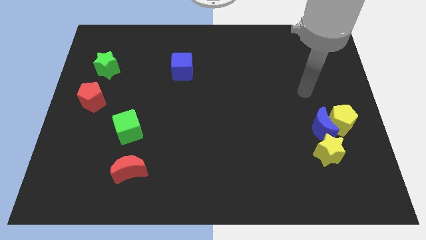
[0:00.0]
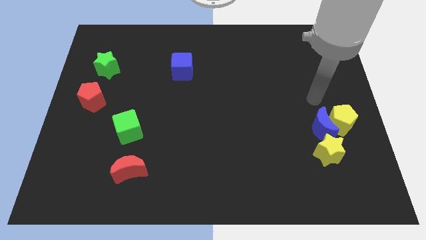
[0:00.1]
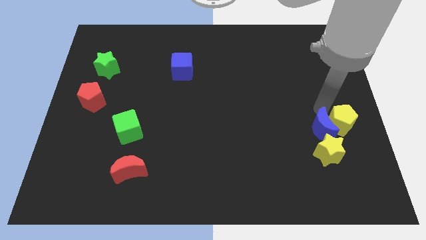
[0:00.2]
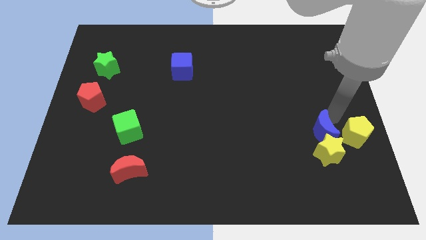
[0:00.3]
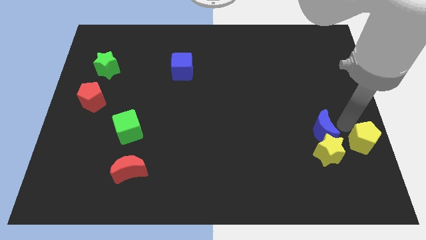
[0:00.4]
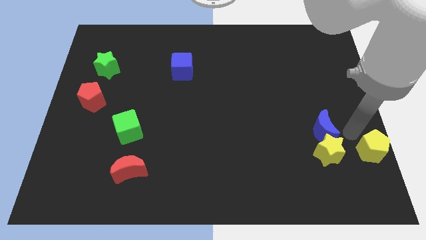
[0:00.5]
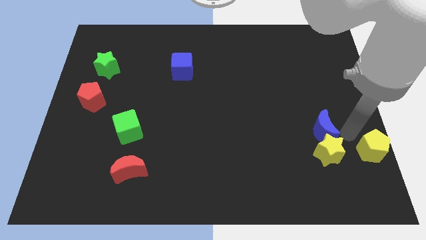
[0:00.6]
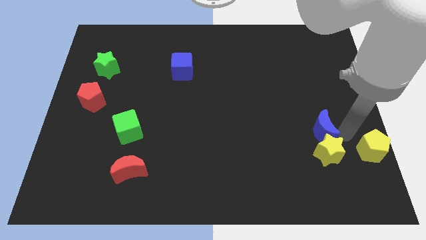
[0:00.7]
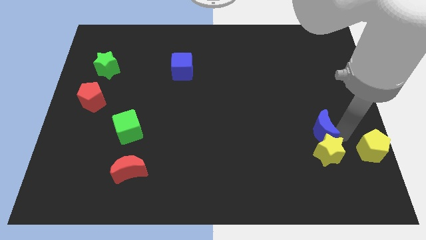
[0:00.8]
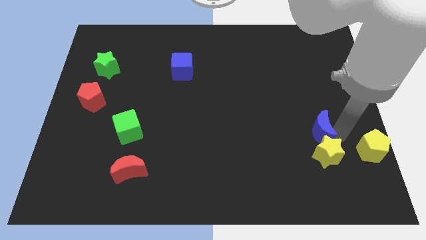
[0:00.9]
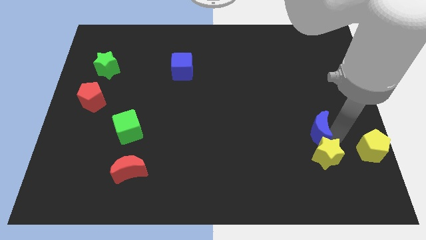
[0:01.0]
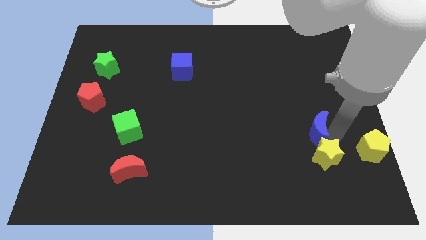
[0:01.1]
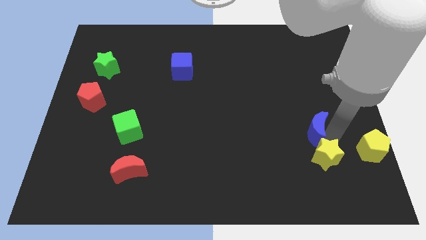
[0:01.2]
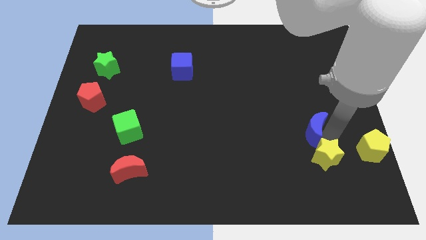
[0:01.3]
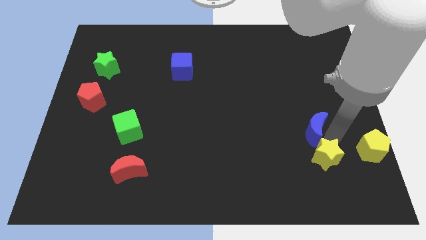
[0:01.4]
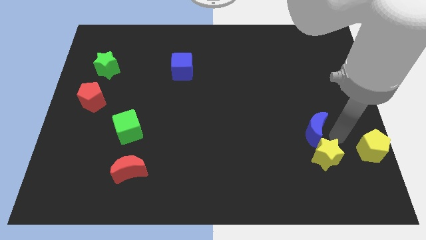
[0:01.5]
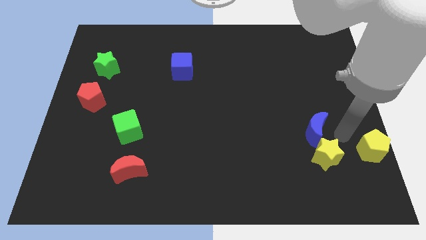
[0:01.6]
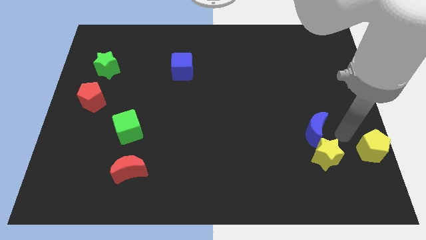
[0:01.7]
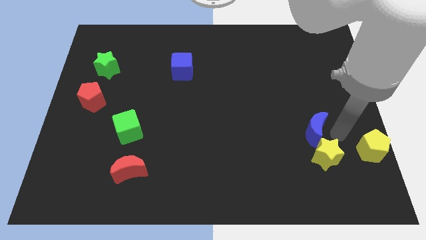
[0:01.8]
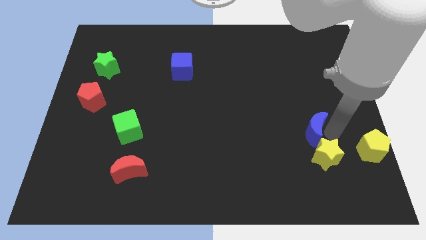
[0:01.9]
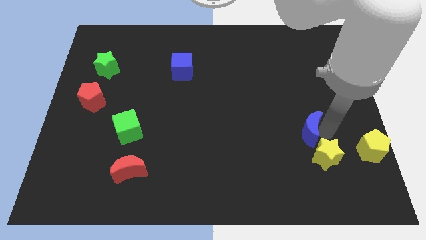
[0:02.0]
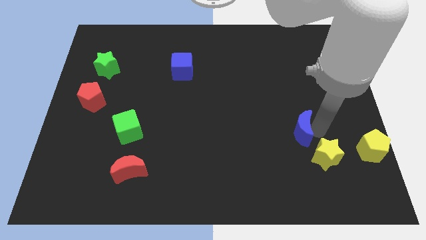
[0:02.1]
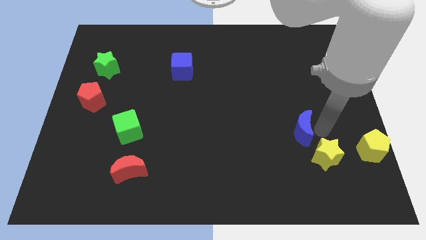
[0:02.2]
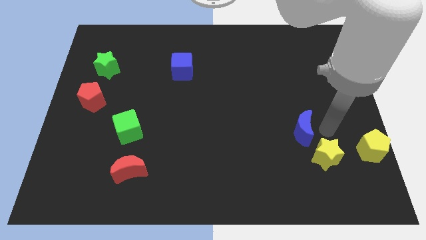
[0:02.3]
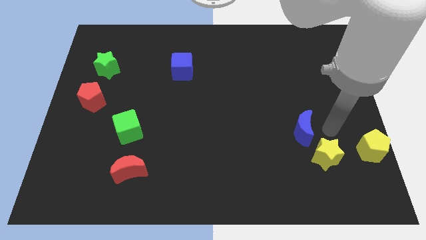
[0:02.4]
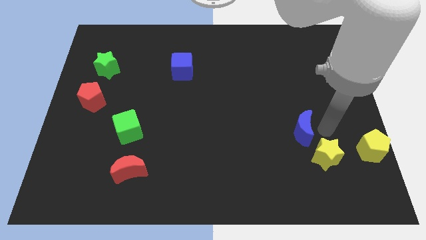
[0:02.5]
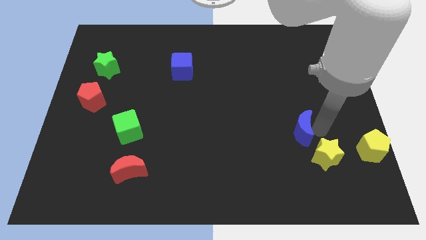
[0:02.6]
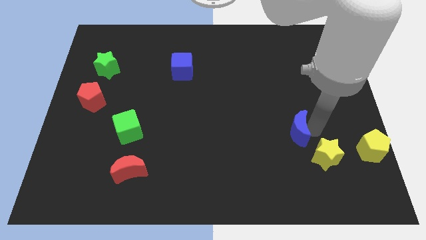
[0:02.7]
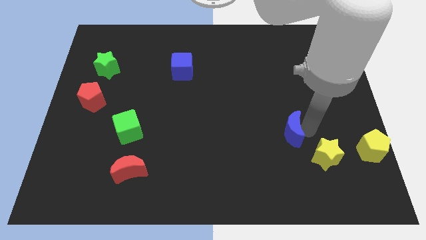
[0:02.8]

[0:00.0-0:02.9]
slightly slide the blue moon to the left

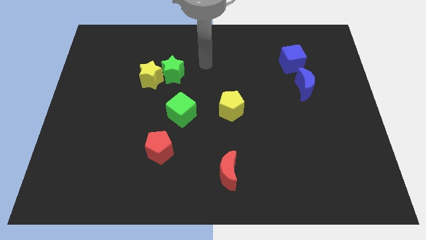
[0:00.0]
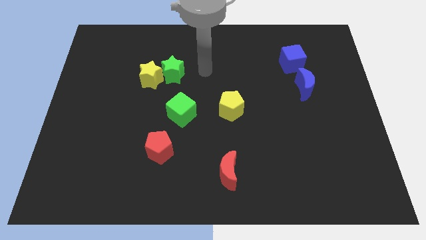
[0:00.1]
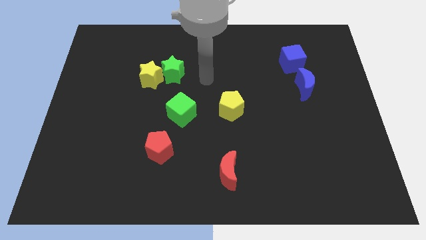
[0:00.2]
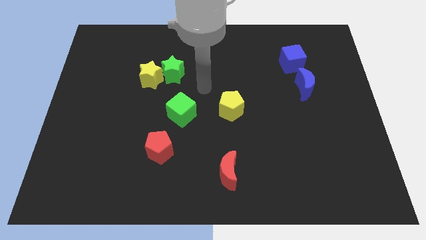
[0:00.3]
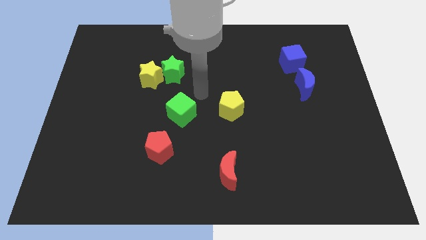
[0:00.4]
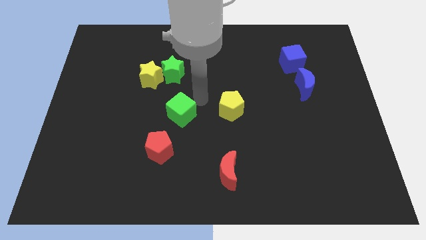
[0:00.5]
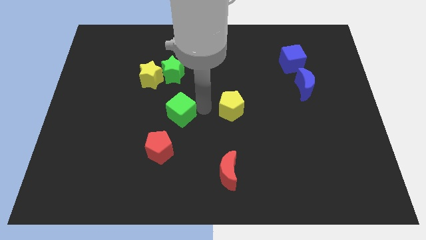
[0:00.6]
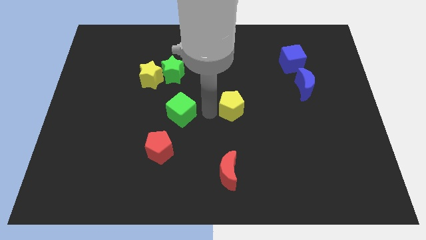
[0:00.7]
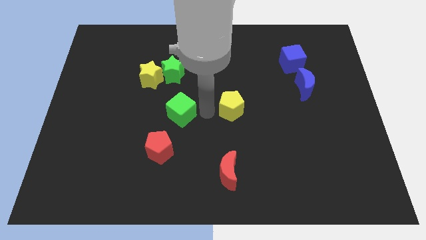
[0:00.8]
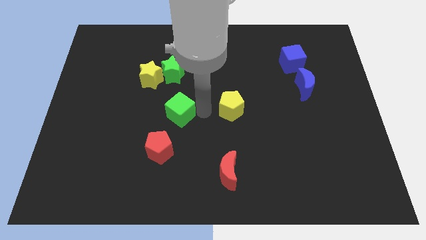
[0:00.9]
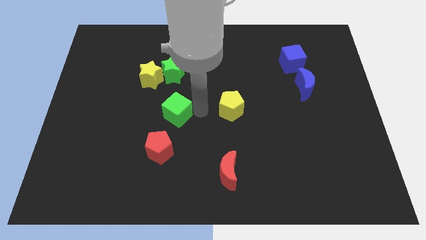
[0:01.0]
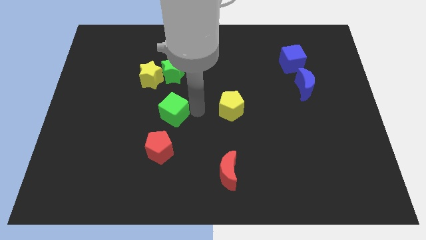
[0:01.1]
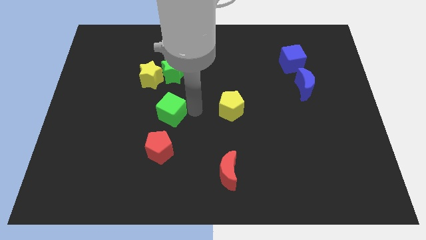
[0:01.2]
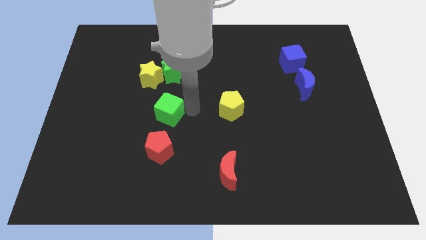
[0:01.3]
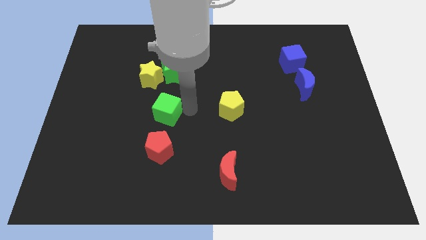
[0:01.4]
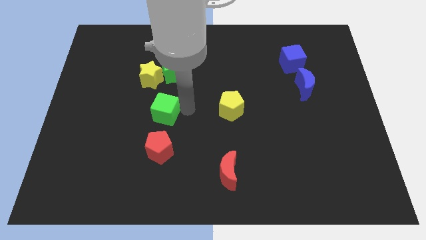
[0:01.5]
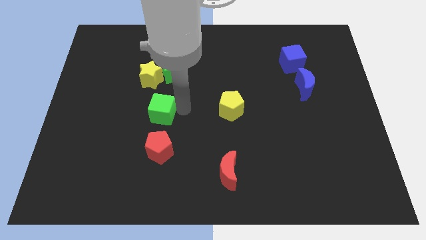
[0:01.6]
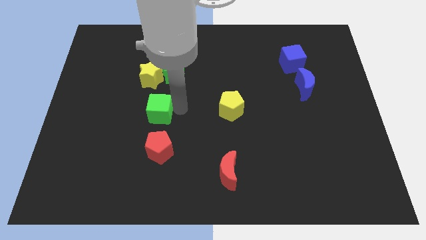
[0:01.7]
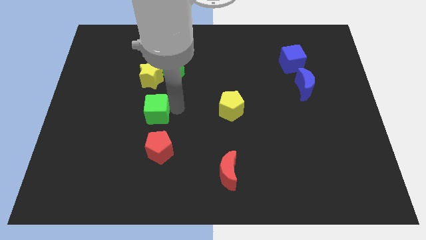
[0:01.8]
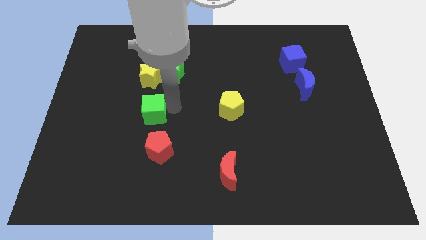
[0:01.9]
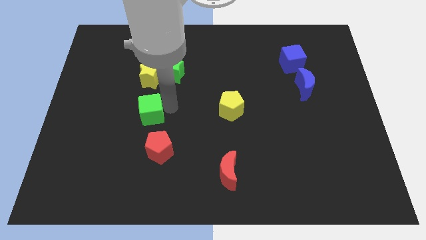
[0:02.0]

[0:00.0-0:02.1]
slide the green cube a little left

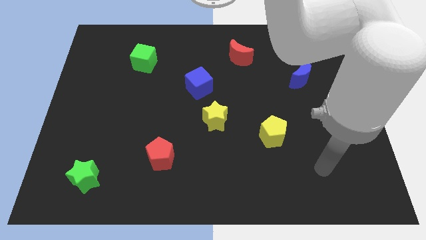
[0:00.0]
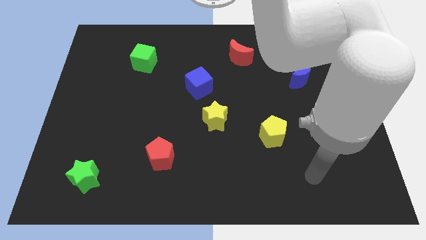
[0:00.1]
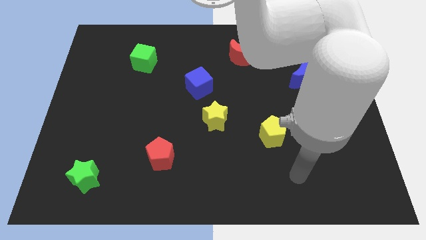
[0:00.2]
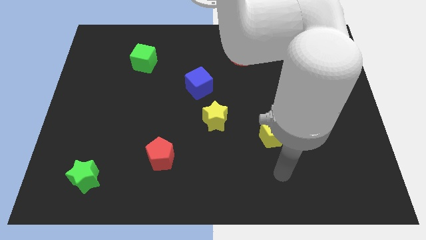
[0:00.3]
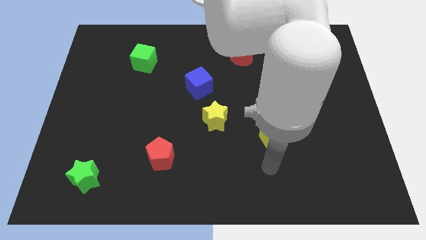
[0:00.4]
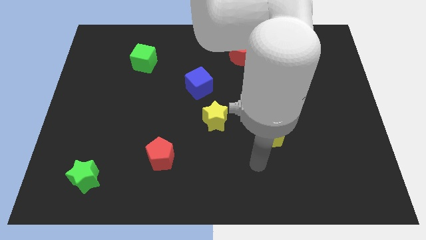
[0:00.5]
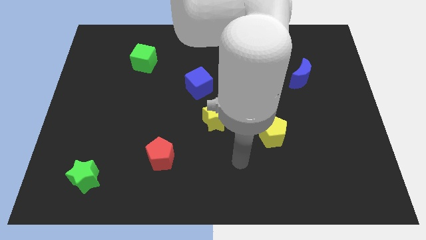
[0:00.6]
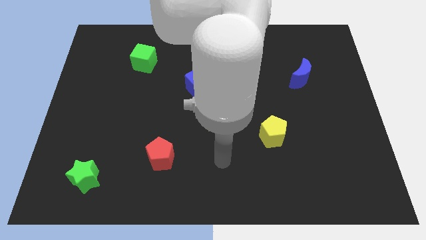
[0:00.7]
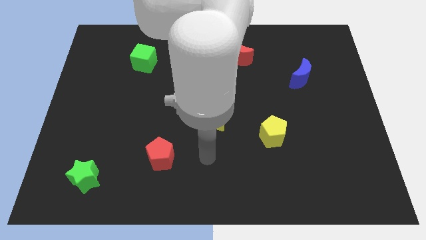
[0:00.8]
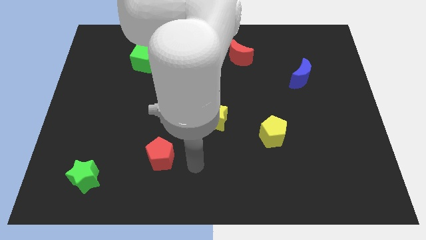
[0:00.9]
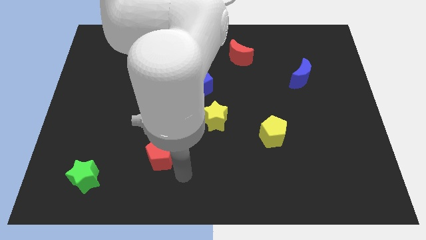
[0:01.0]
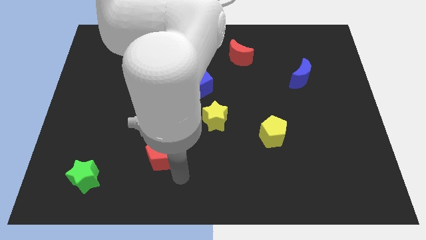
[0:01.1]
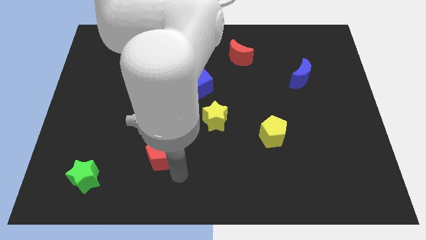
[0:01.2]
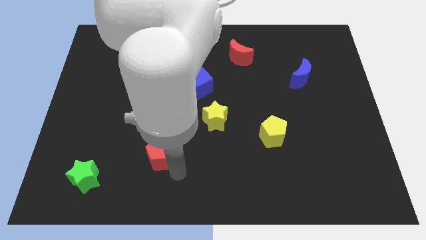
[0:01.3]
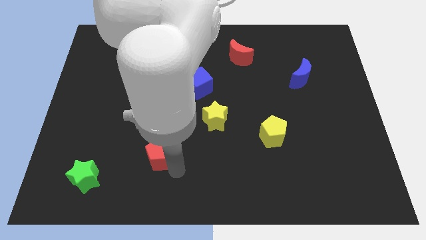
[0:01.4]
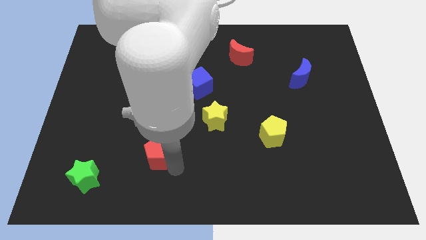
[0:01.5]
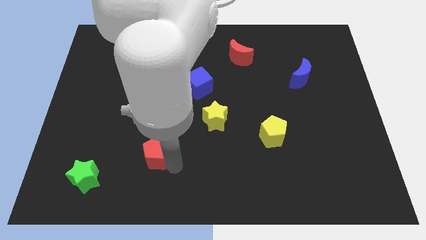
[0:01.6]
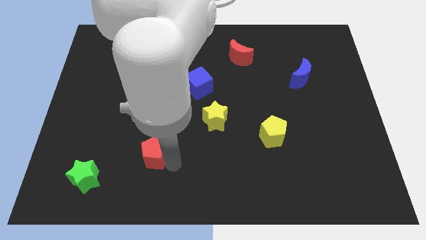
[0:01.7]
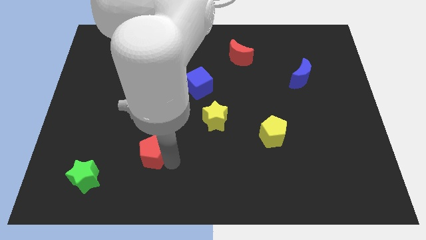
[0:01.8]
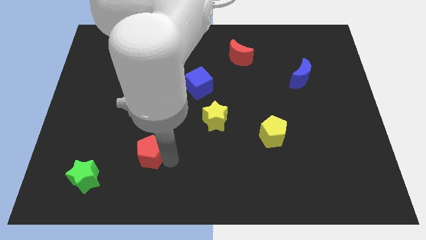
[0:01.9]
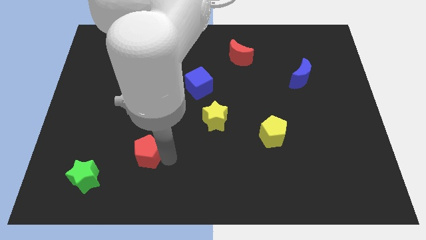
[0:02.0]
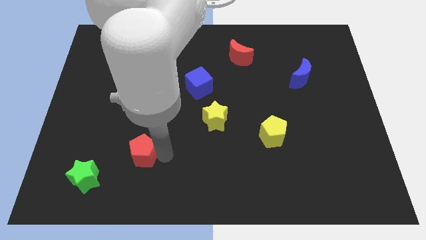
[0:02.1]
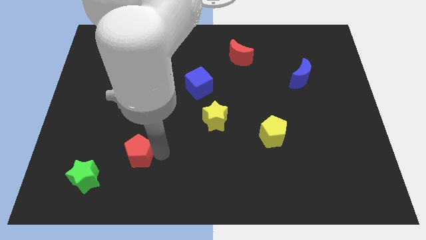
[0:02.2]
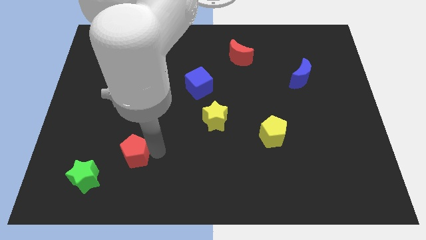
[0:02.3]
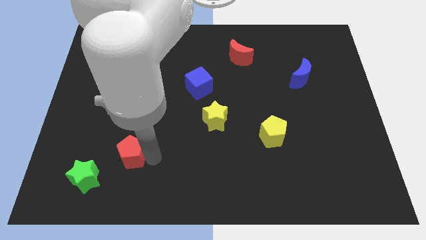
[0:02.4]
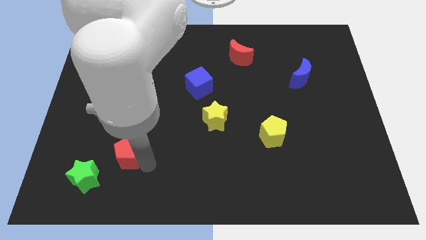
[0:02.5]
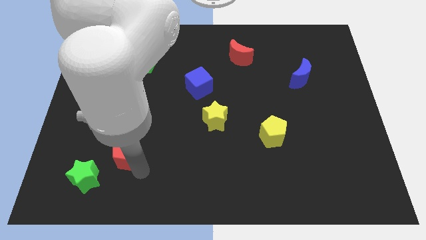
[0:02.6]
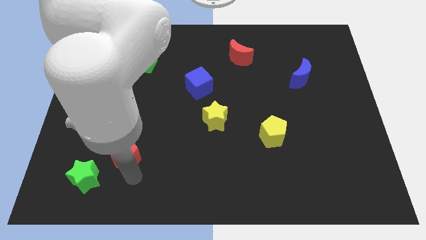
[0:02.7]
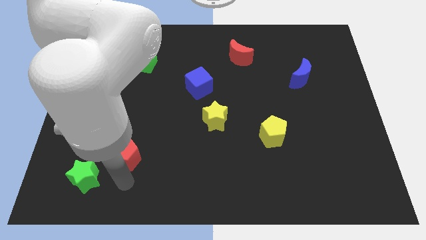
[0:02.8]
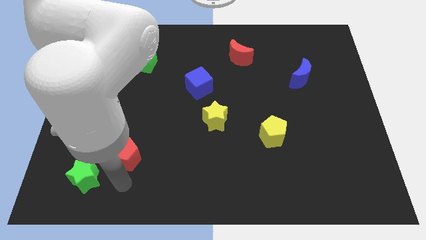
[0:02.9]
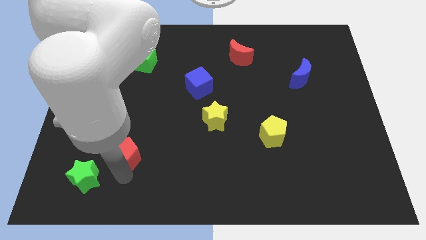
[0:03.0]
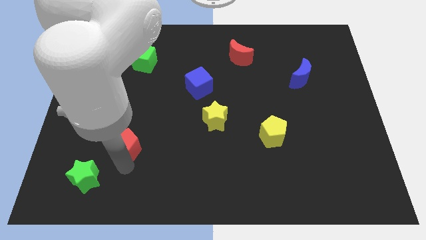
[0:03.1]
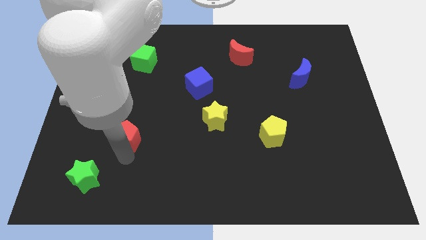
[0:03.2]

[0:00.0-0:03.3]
slightly move the red pentagon upwards and to the left
